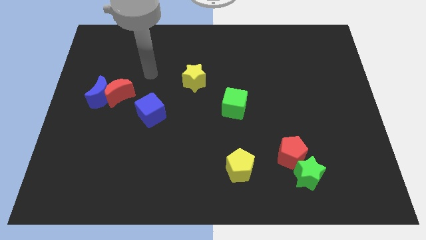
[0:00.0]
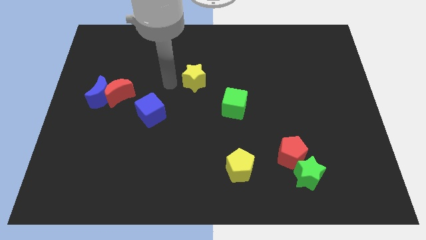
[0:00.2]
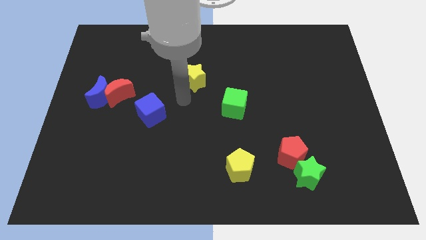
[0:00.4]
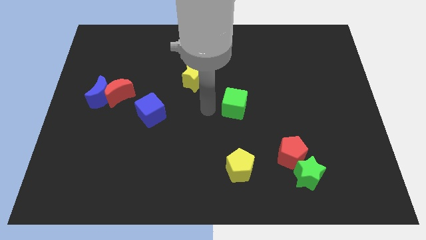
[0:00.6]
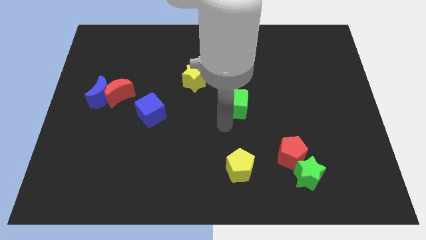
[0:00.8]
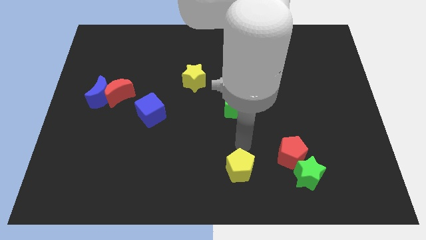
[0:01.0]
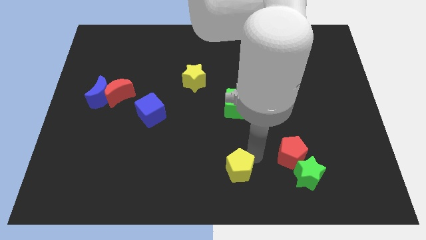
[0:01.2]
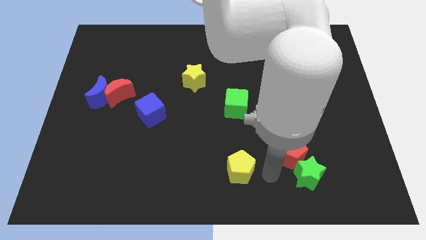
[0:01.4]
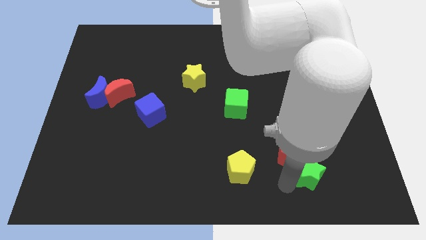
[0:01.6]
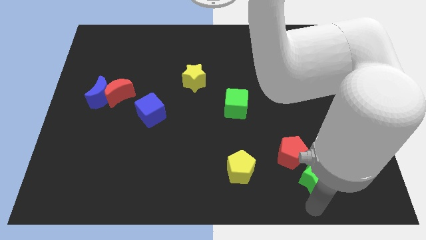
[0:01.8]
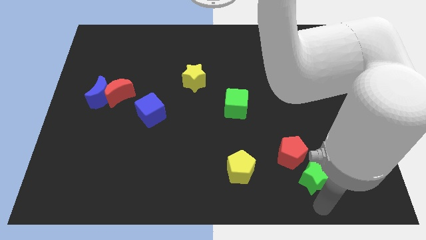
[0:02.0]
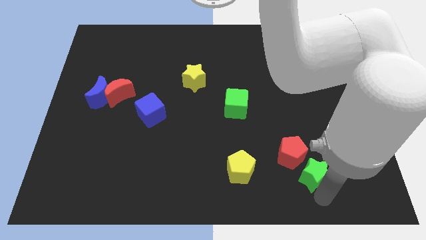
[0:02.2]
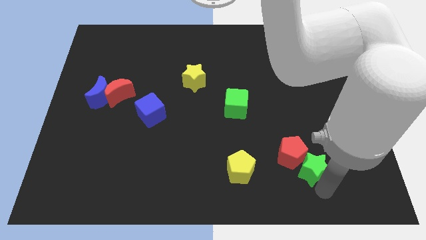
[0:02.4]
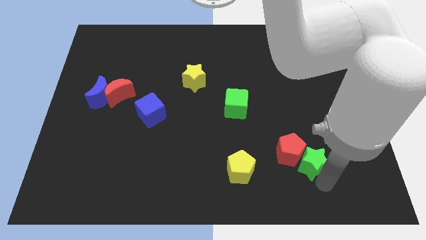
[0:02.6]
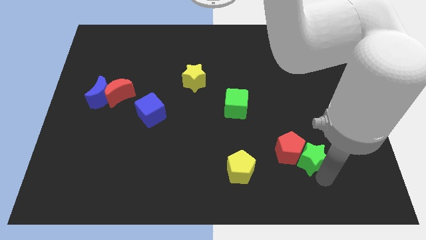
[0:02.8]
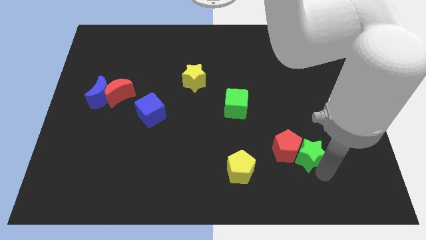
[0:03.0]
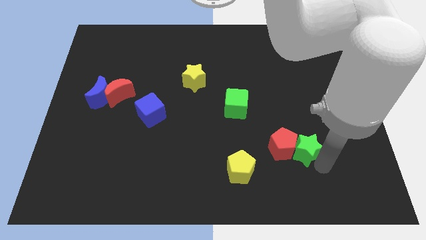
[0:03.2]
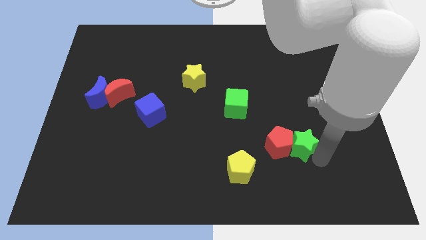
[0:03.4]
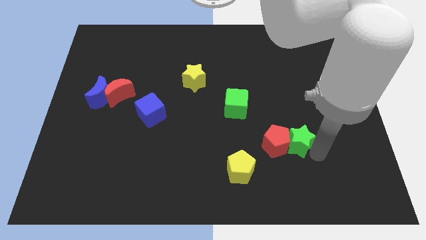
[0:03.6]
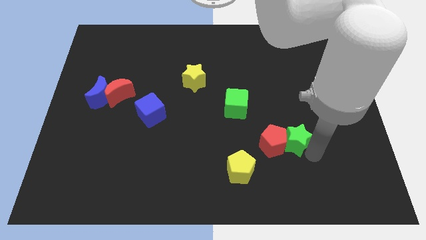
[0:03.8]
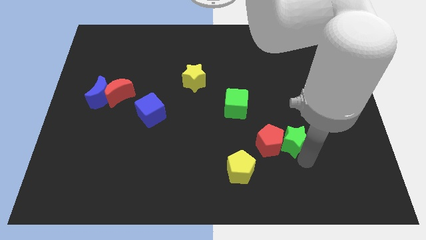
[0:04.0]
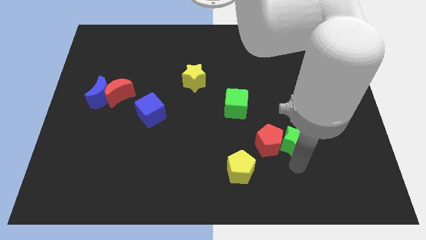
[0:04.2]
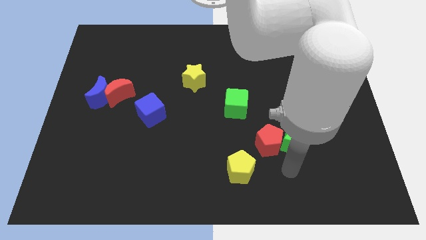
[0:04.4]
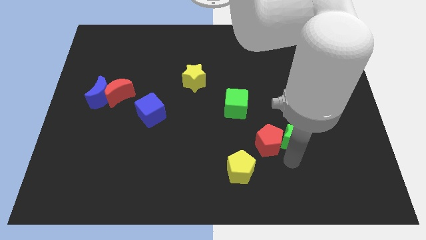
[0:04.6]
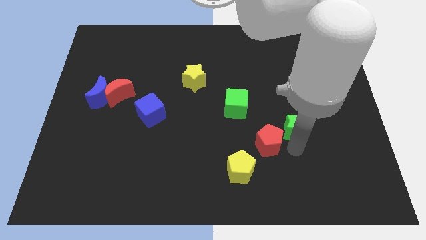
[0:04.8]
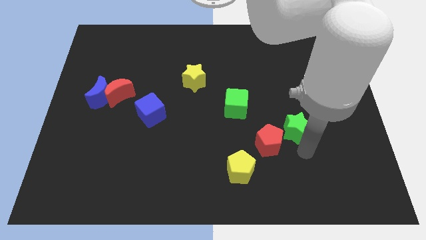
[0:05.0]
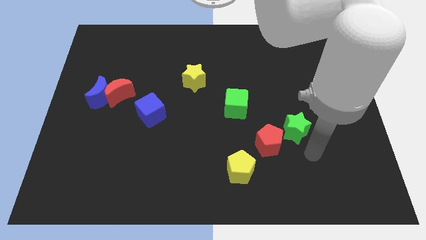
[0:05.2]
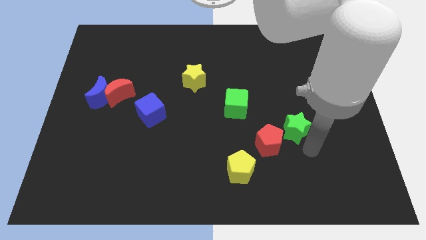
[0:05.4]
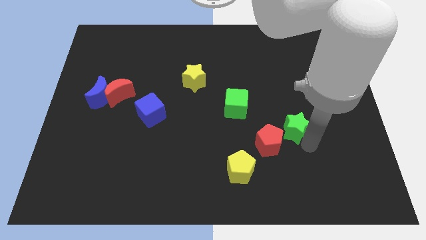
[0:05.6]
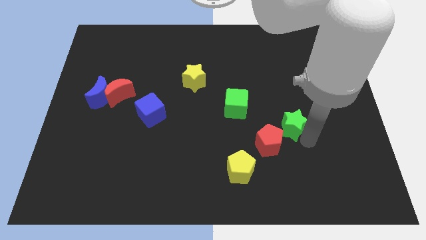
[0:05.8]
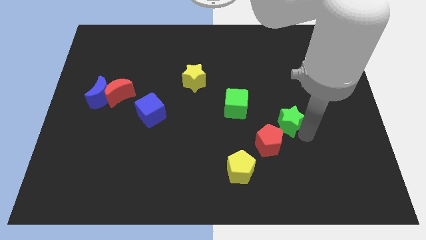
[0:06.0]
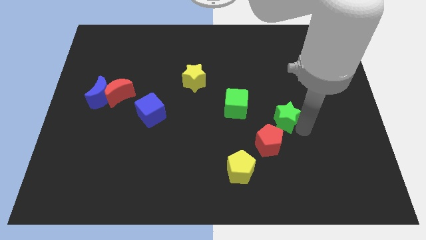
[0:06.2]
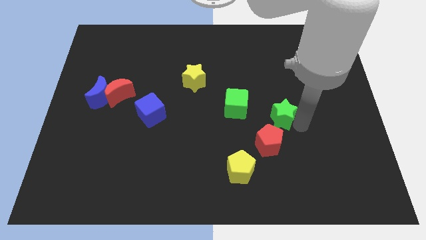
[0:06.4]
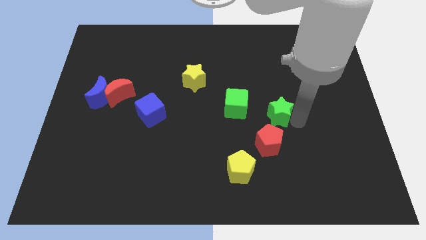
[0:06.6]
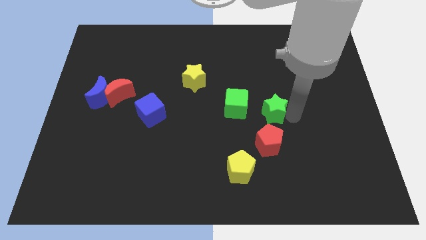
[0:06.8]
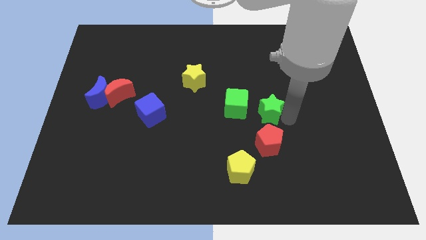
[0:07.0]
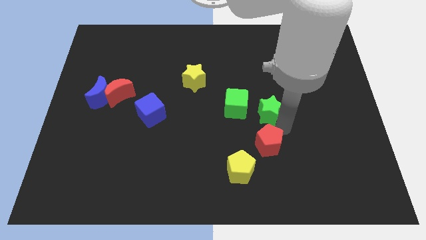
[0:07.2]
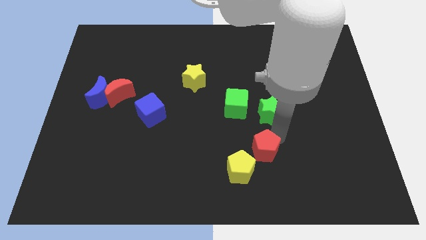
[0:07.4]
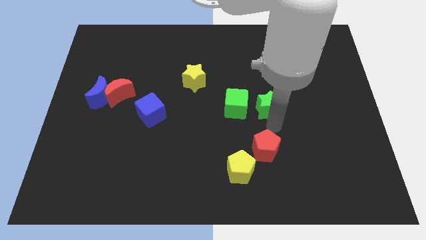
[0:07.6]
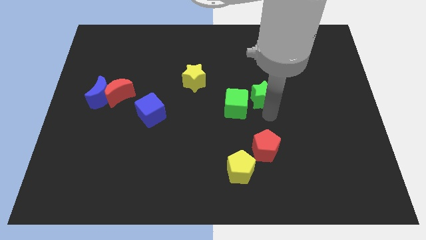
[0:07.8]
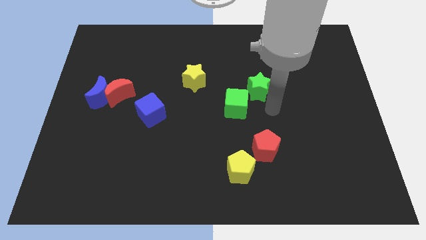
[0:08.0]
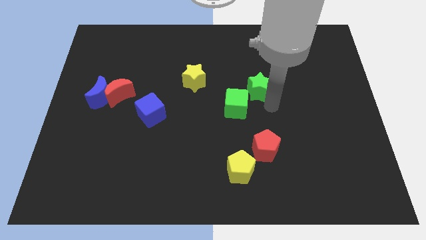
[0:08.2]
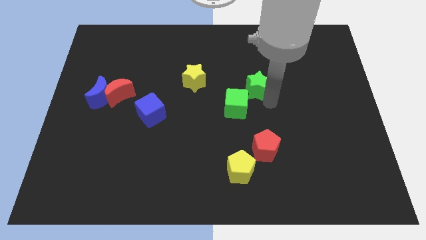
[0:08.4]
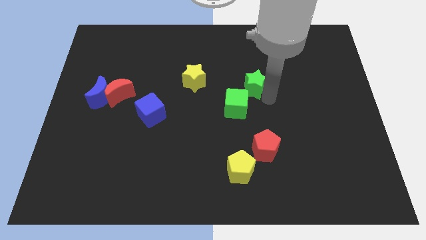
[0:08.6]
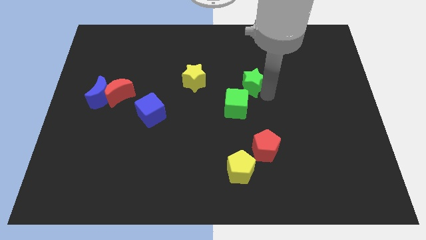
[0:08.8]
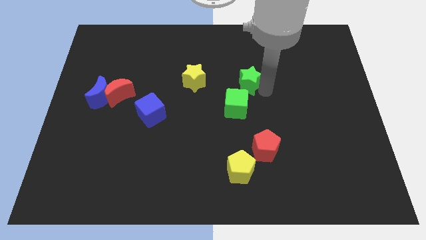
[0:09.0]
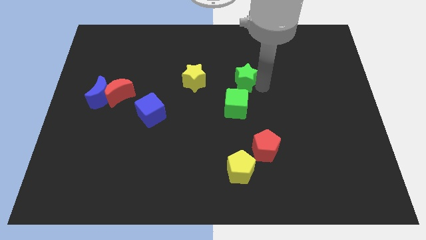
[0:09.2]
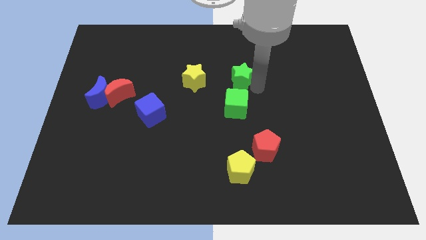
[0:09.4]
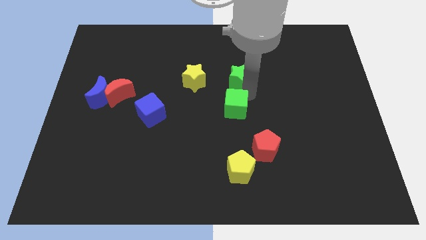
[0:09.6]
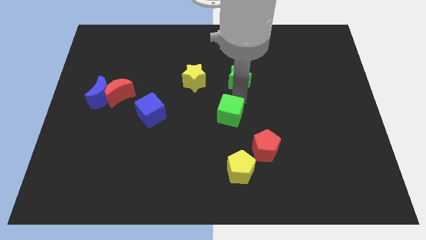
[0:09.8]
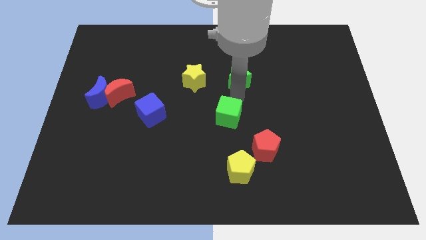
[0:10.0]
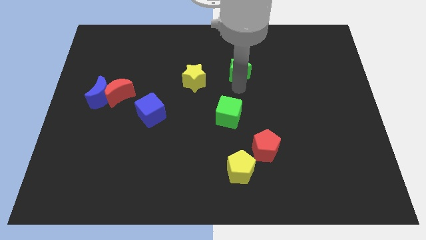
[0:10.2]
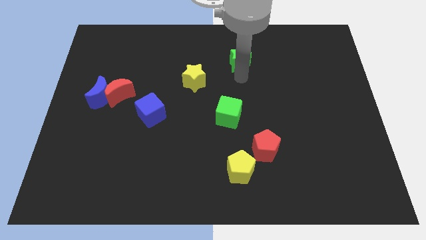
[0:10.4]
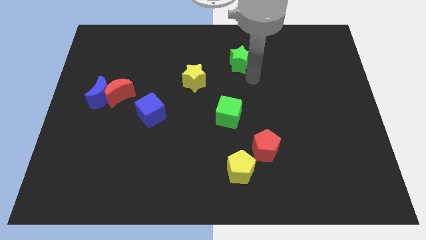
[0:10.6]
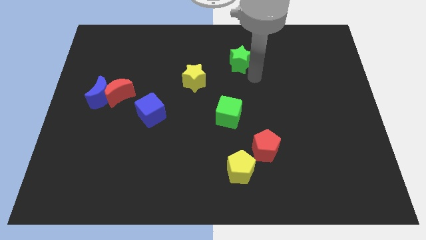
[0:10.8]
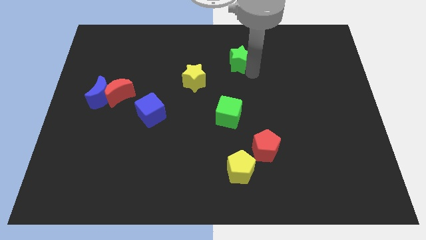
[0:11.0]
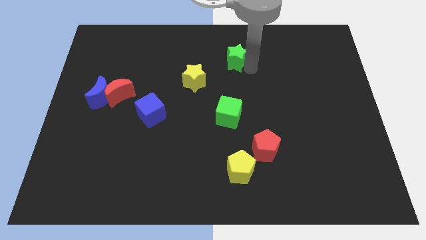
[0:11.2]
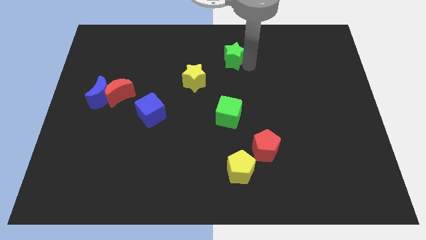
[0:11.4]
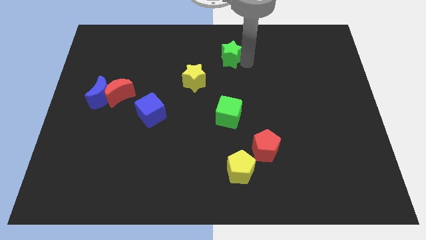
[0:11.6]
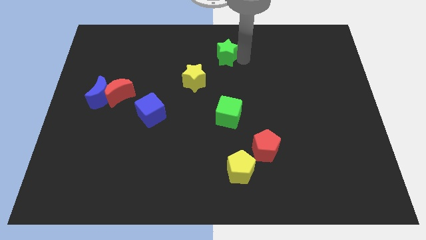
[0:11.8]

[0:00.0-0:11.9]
push the green star to the top

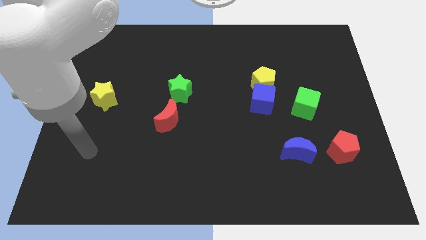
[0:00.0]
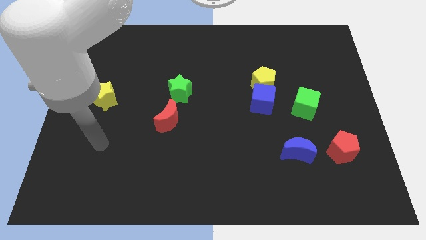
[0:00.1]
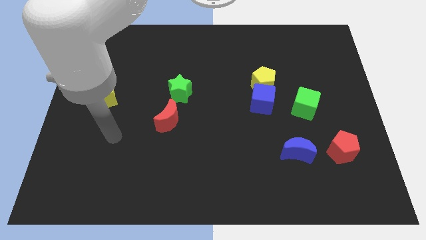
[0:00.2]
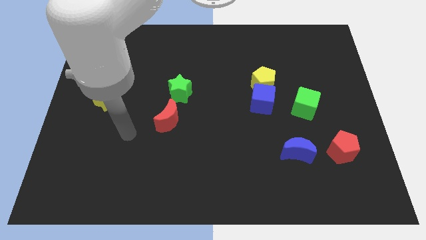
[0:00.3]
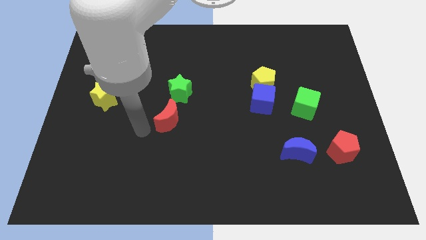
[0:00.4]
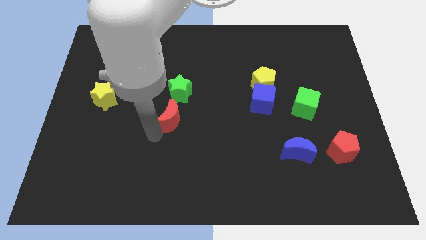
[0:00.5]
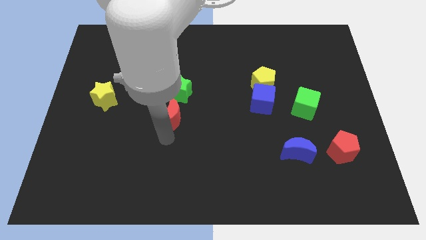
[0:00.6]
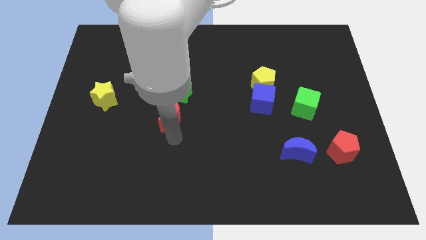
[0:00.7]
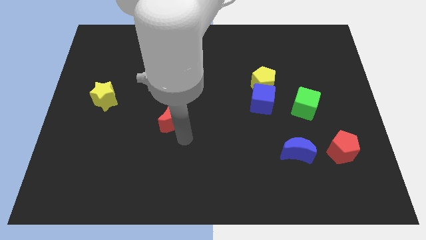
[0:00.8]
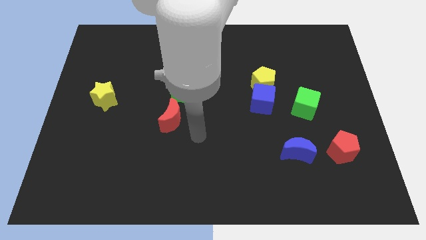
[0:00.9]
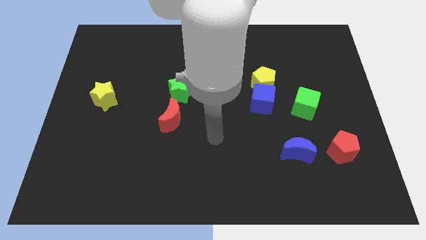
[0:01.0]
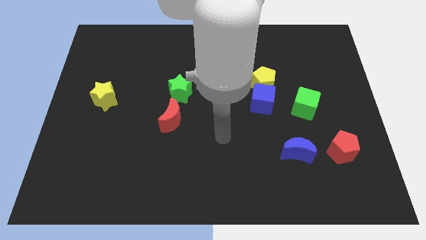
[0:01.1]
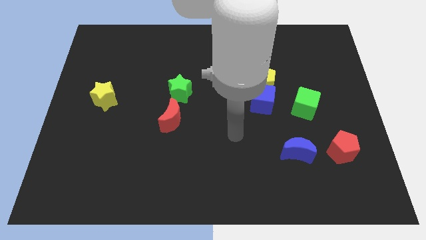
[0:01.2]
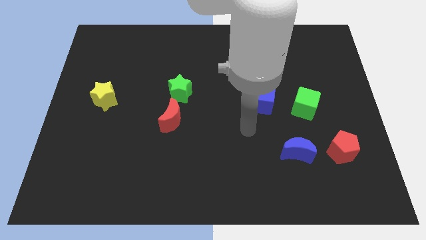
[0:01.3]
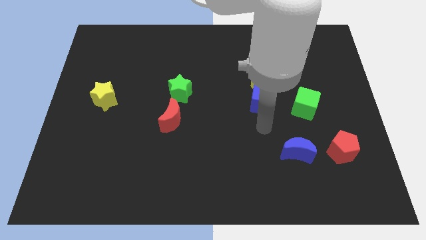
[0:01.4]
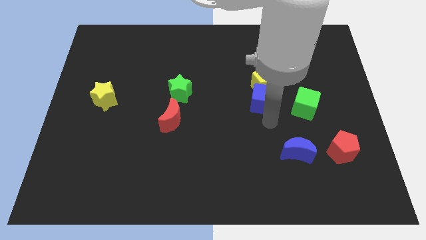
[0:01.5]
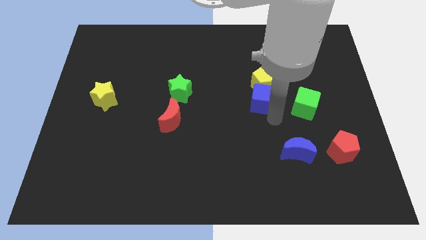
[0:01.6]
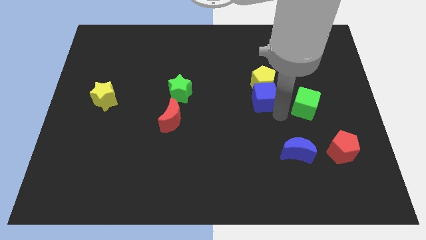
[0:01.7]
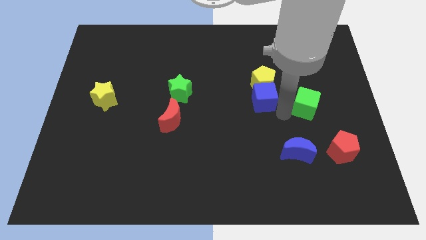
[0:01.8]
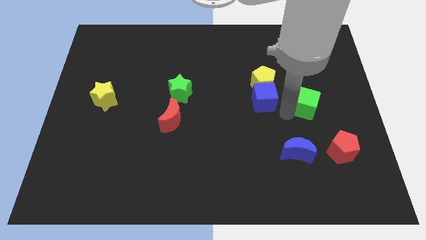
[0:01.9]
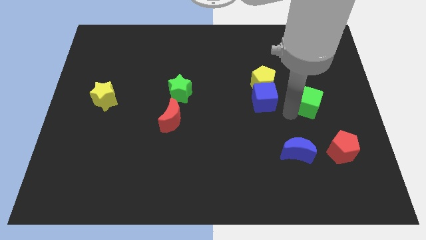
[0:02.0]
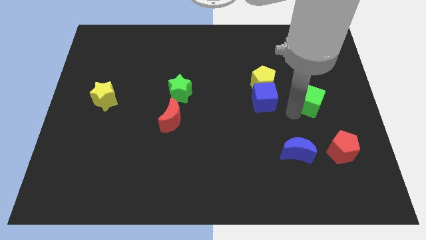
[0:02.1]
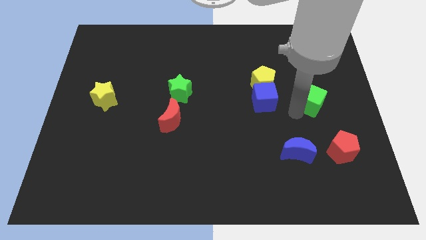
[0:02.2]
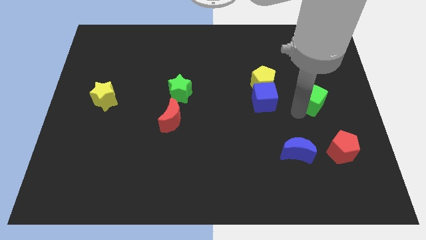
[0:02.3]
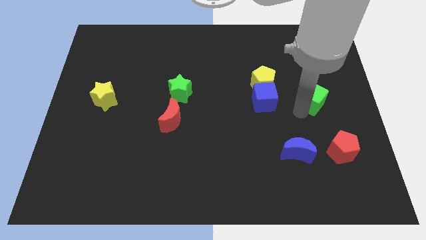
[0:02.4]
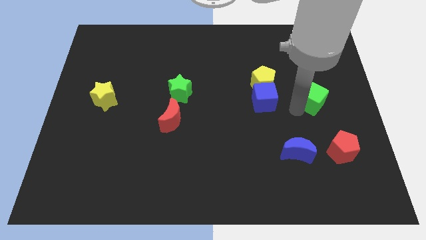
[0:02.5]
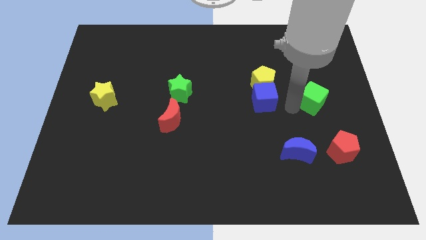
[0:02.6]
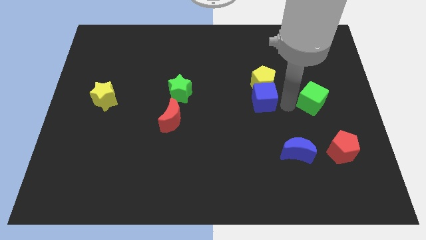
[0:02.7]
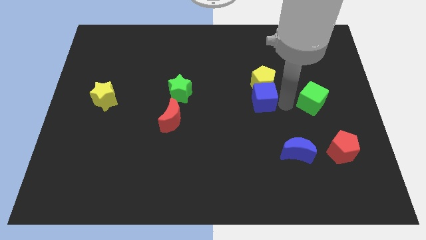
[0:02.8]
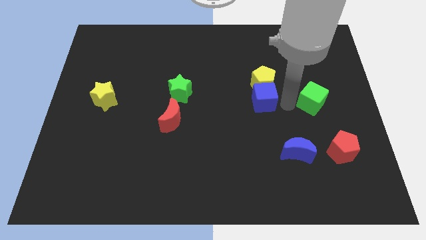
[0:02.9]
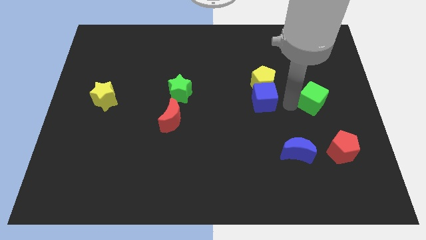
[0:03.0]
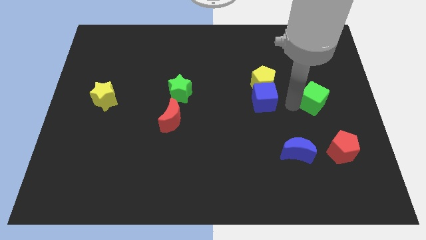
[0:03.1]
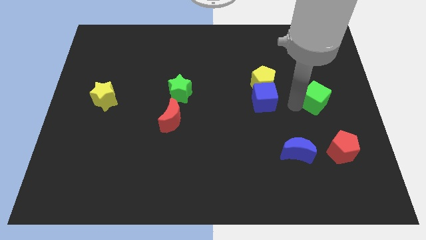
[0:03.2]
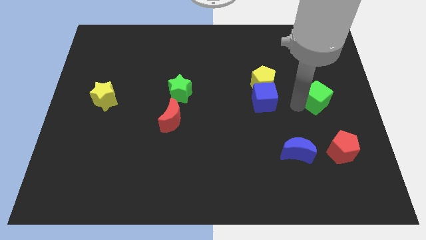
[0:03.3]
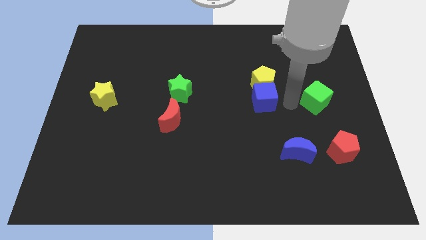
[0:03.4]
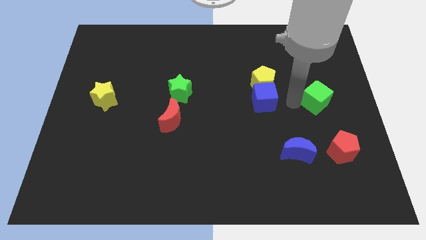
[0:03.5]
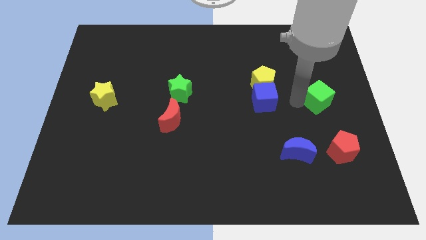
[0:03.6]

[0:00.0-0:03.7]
put the green cube to the center right
